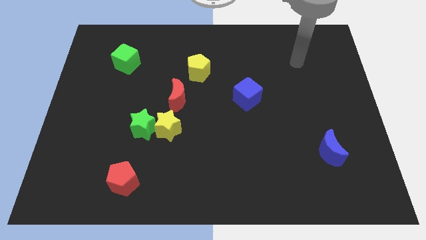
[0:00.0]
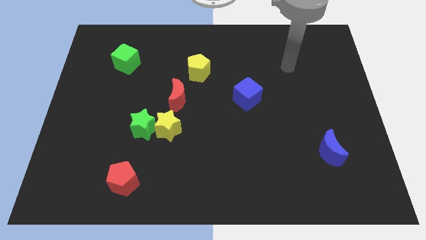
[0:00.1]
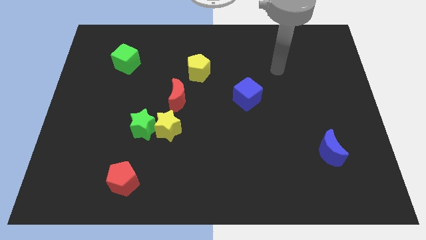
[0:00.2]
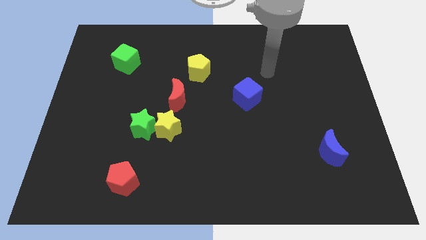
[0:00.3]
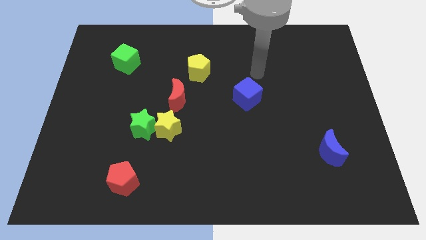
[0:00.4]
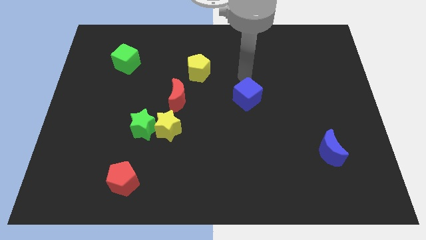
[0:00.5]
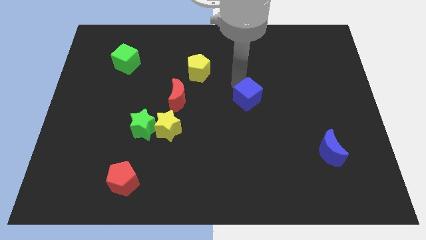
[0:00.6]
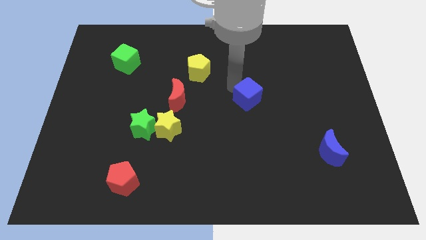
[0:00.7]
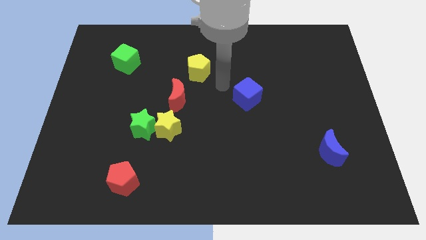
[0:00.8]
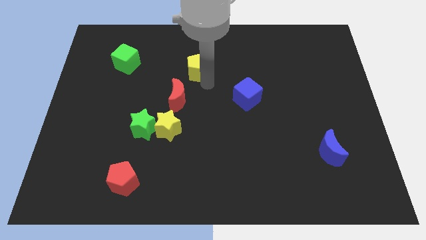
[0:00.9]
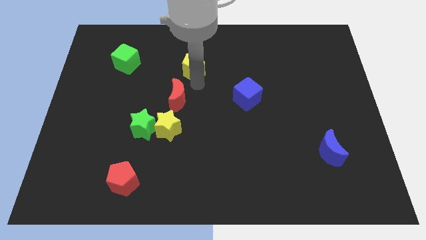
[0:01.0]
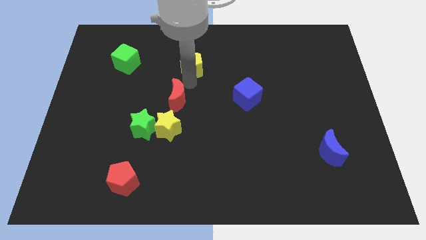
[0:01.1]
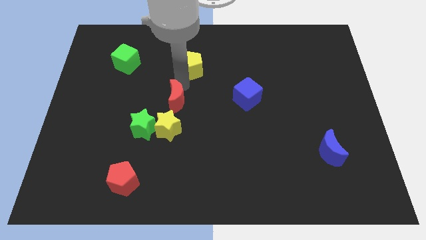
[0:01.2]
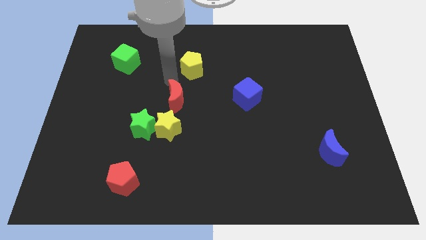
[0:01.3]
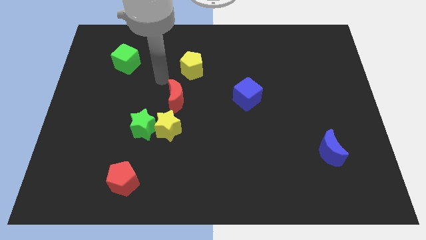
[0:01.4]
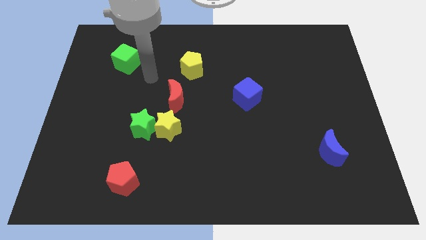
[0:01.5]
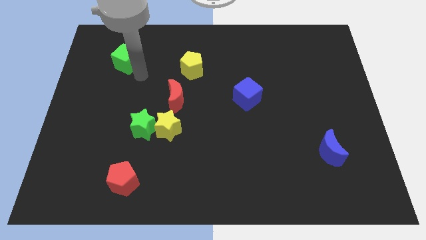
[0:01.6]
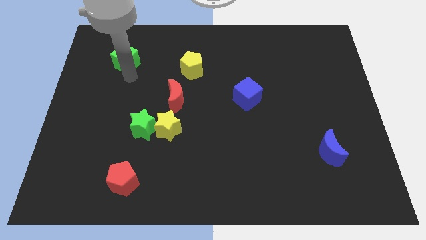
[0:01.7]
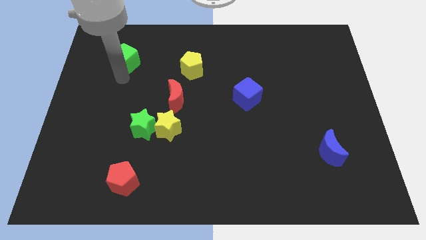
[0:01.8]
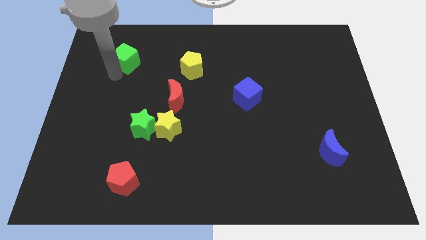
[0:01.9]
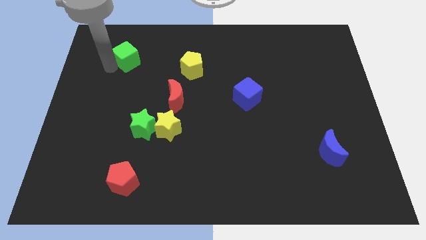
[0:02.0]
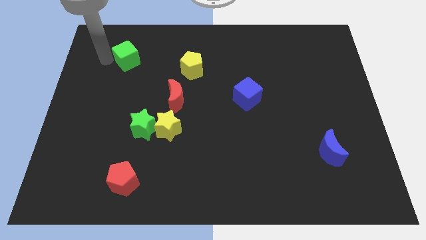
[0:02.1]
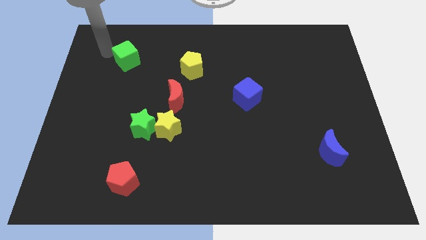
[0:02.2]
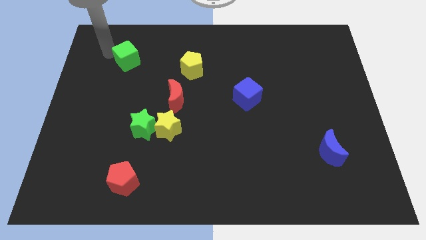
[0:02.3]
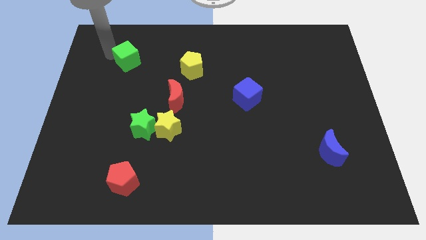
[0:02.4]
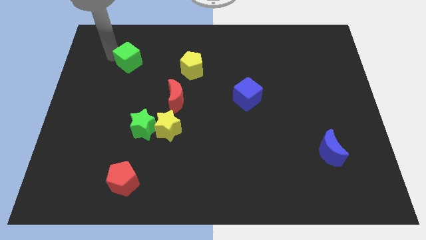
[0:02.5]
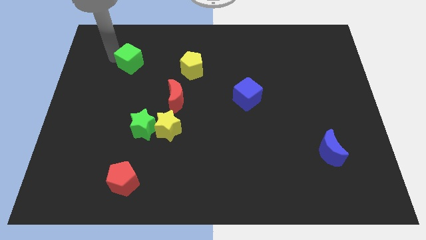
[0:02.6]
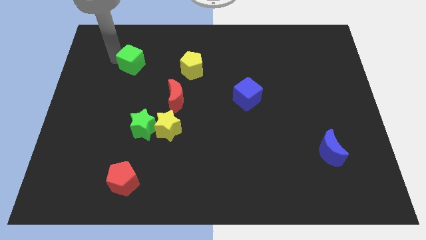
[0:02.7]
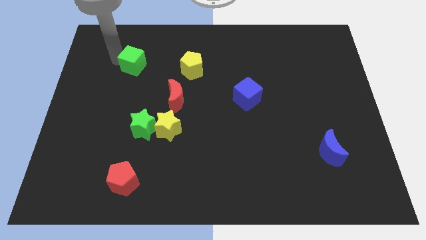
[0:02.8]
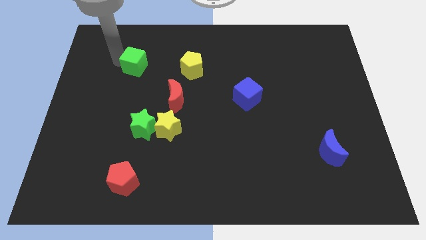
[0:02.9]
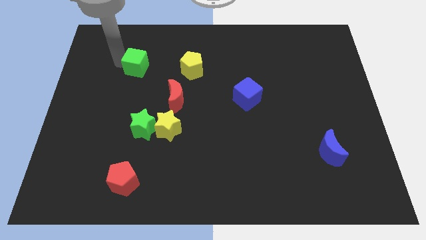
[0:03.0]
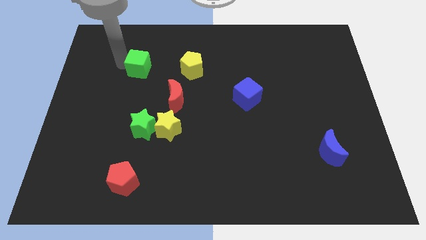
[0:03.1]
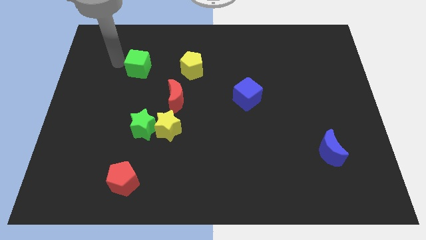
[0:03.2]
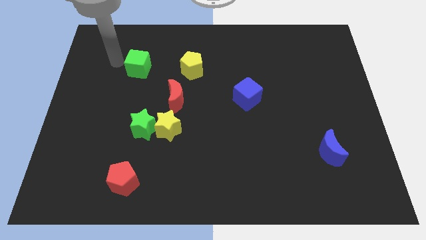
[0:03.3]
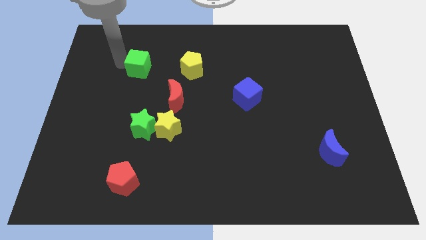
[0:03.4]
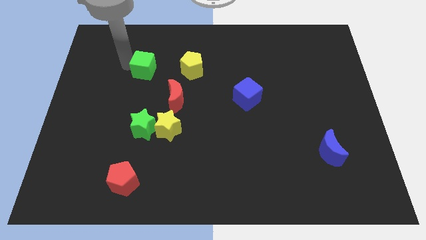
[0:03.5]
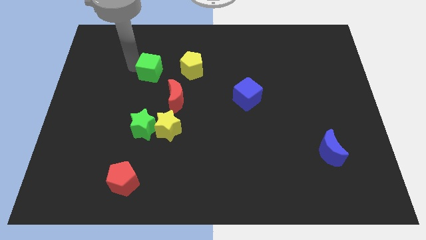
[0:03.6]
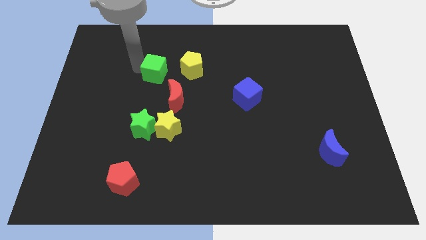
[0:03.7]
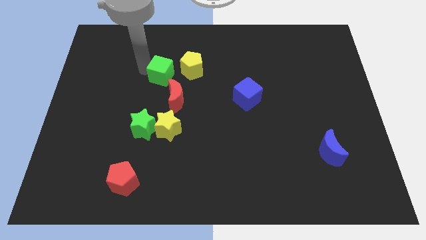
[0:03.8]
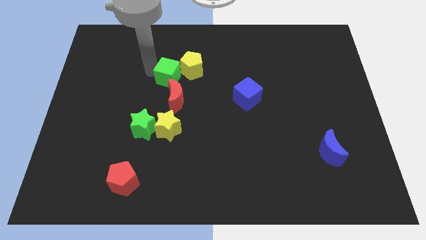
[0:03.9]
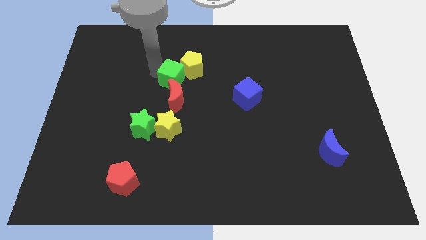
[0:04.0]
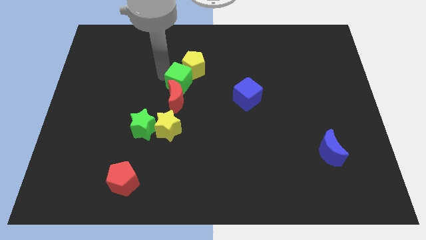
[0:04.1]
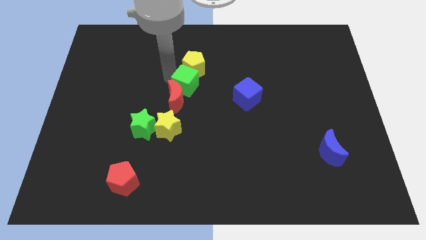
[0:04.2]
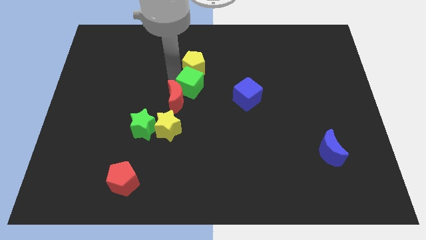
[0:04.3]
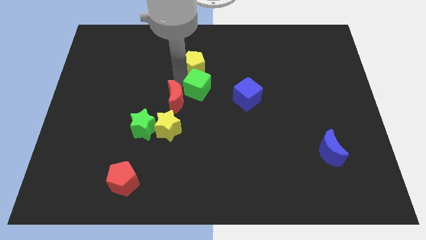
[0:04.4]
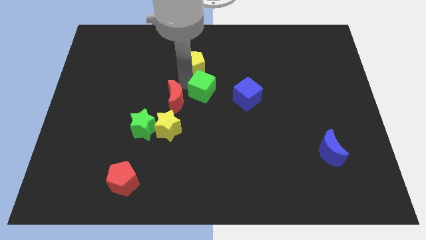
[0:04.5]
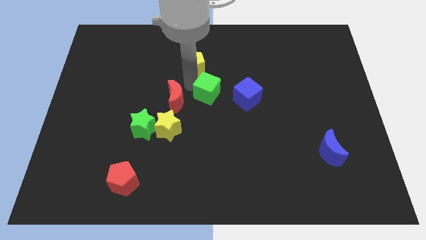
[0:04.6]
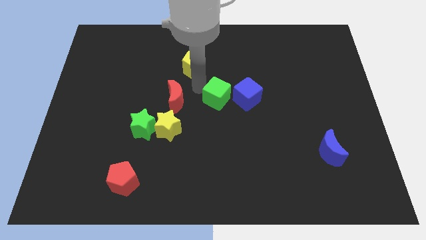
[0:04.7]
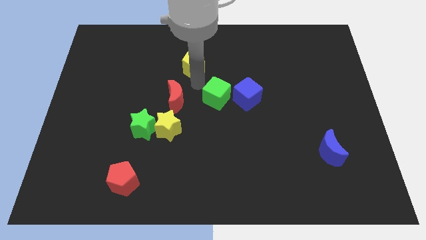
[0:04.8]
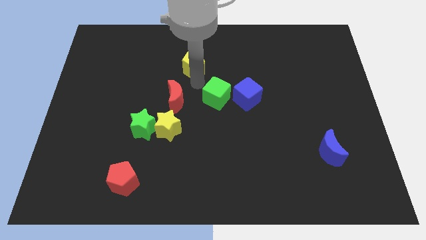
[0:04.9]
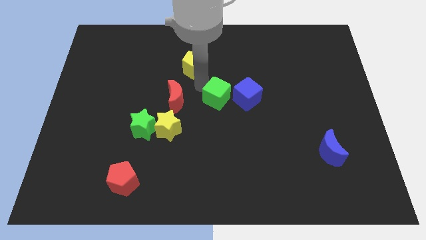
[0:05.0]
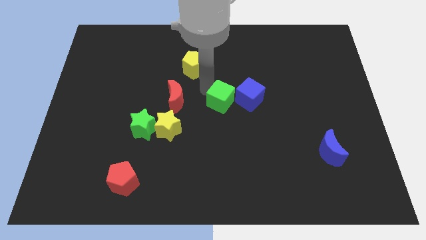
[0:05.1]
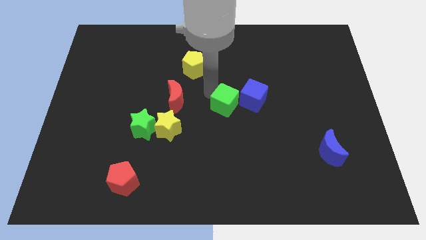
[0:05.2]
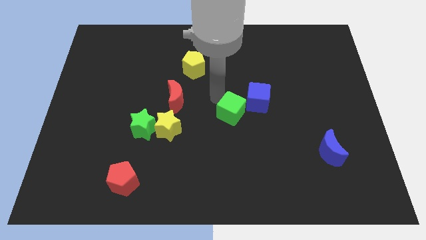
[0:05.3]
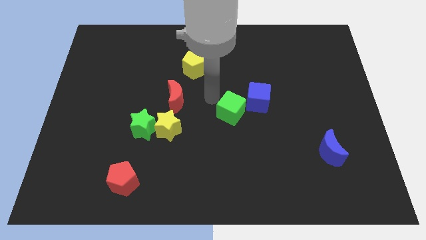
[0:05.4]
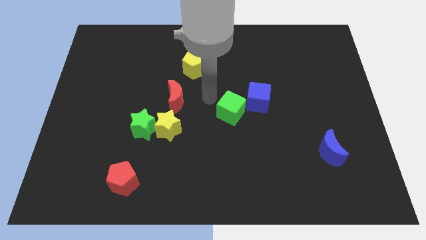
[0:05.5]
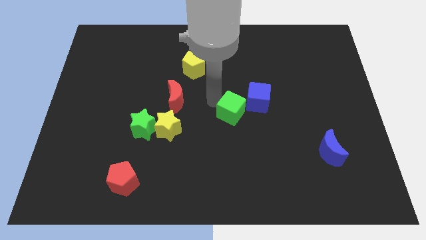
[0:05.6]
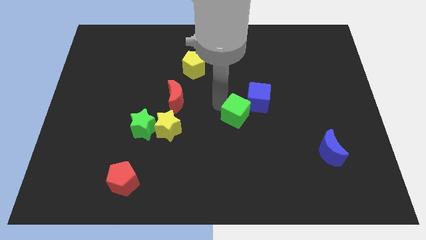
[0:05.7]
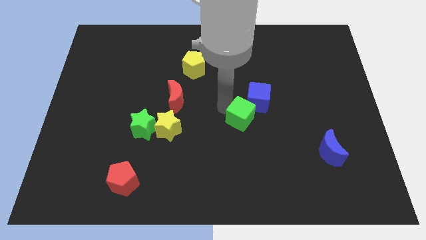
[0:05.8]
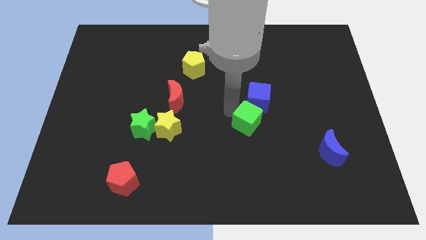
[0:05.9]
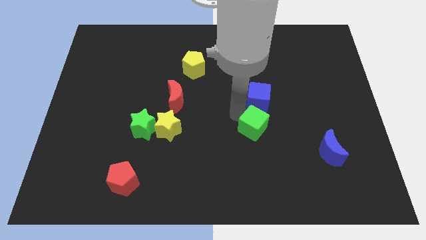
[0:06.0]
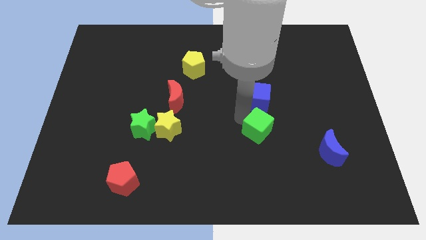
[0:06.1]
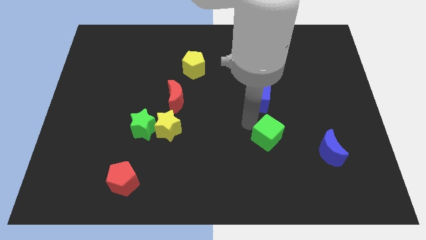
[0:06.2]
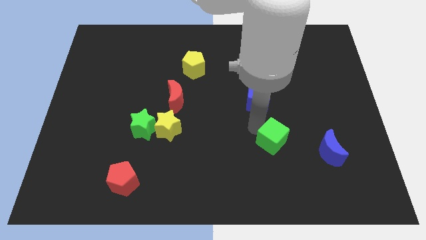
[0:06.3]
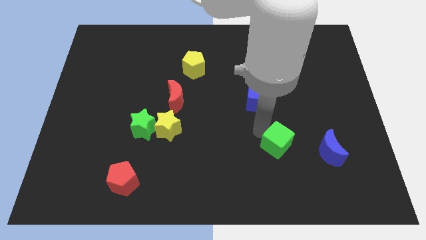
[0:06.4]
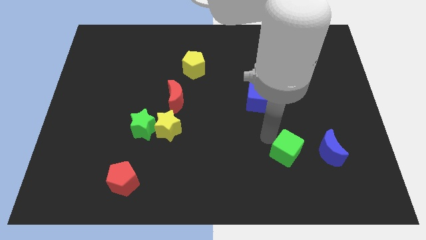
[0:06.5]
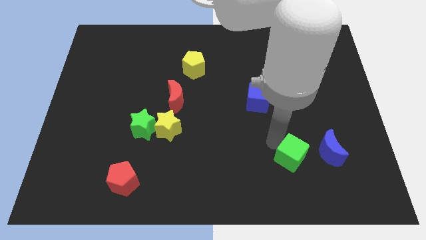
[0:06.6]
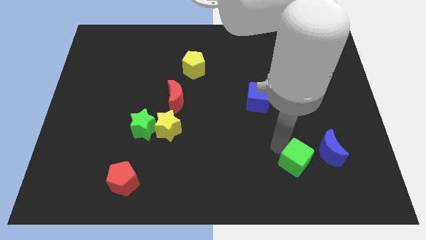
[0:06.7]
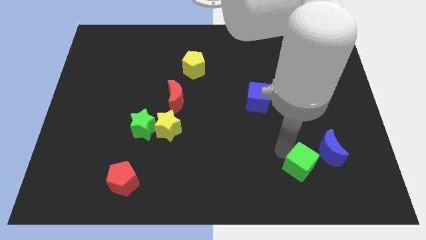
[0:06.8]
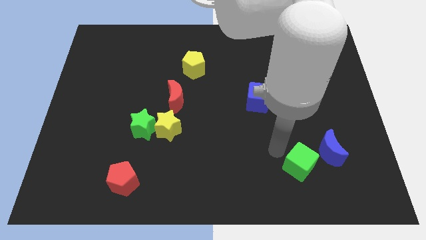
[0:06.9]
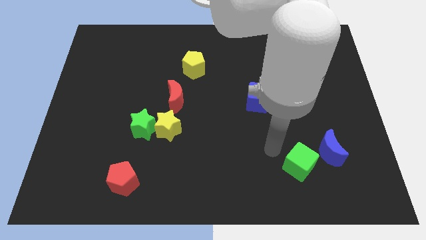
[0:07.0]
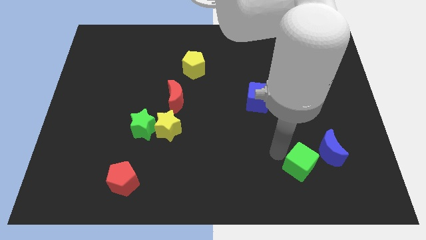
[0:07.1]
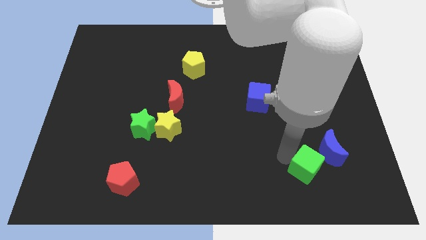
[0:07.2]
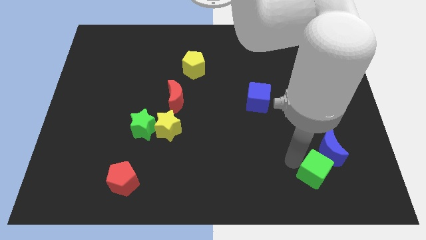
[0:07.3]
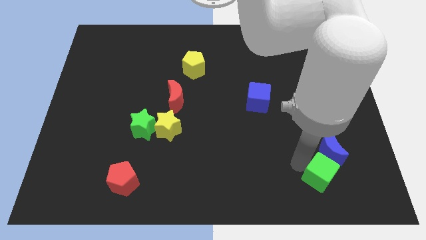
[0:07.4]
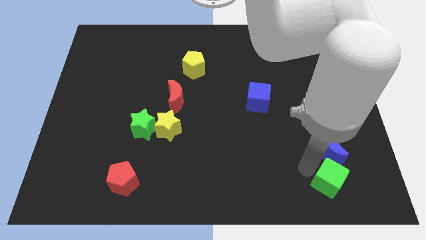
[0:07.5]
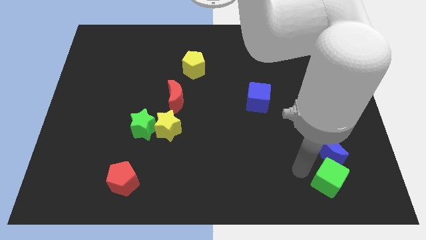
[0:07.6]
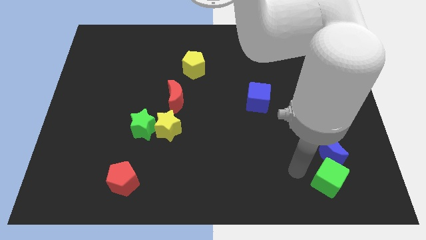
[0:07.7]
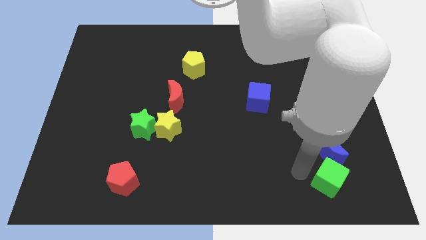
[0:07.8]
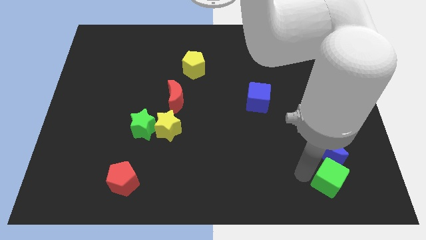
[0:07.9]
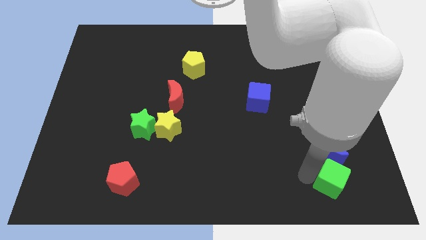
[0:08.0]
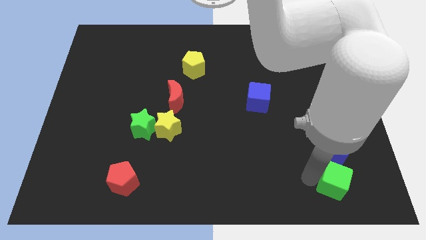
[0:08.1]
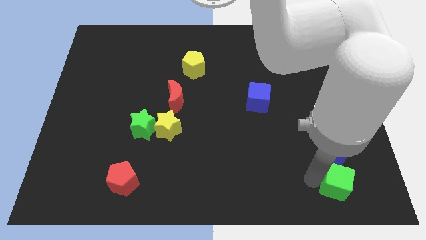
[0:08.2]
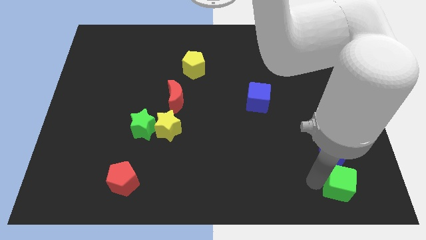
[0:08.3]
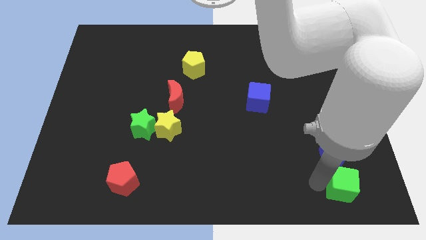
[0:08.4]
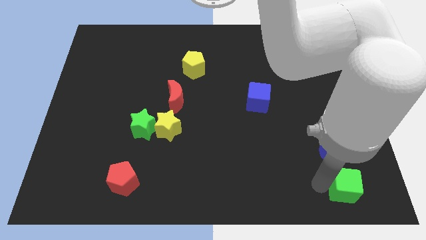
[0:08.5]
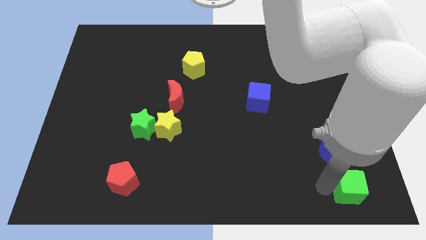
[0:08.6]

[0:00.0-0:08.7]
slide the green cube to the bottom right of the board
